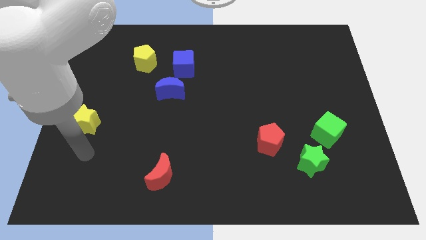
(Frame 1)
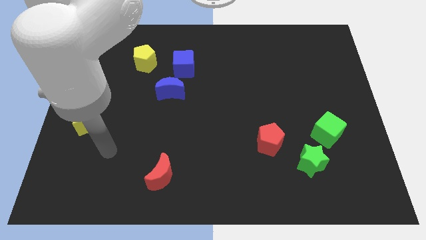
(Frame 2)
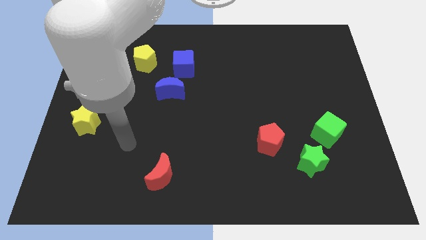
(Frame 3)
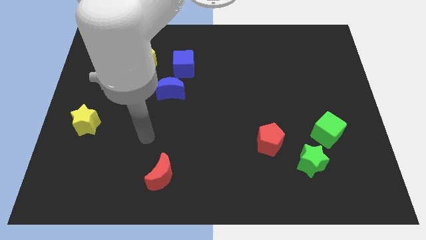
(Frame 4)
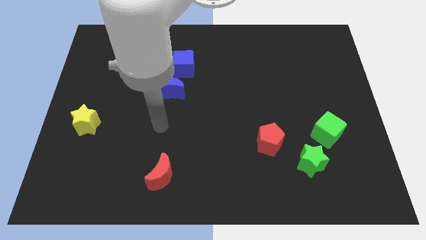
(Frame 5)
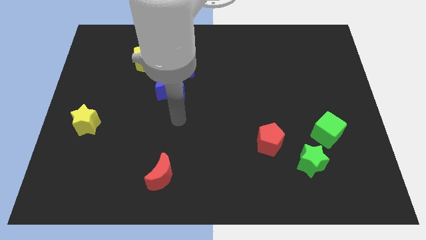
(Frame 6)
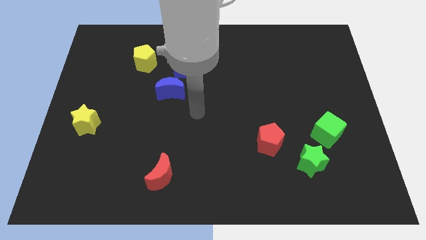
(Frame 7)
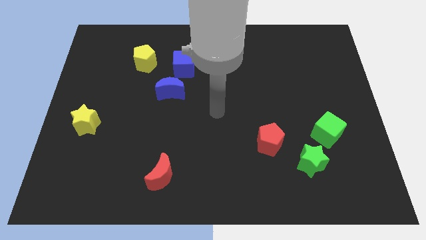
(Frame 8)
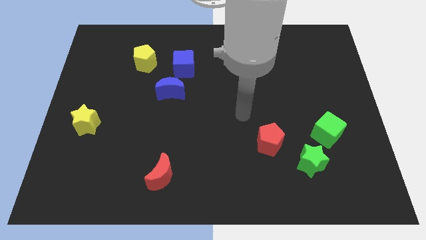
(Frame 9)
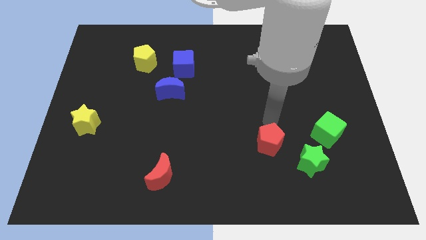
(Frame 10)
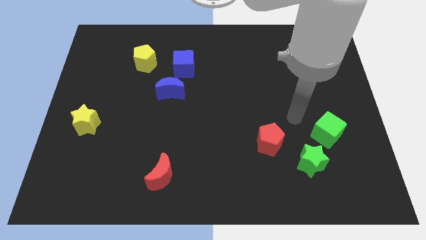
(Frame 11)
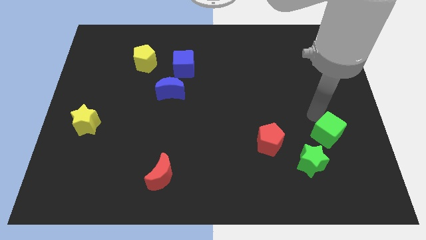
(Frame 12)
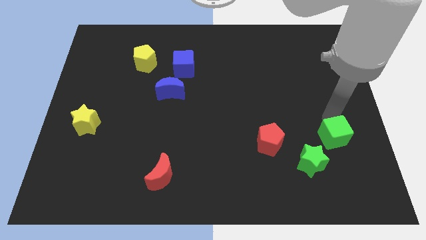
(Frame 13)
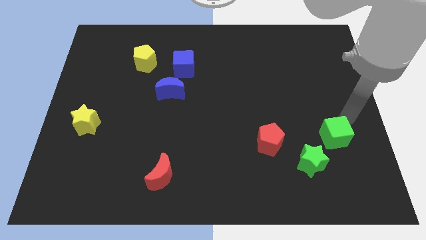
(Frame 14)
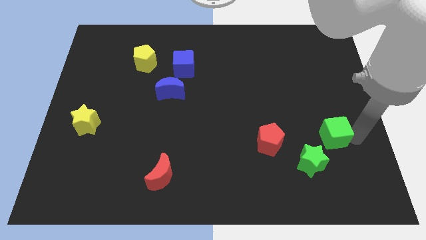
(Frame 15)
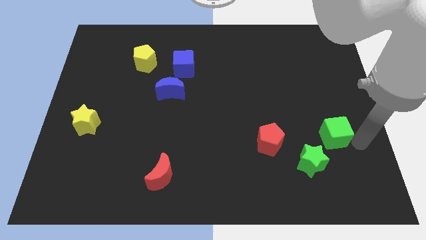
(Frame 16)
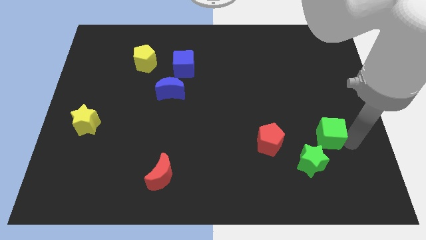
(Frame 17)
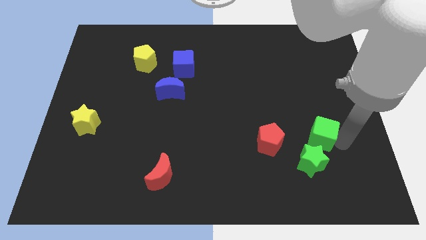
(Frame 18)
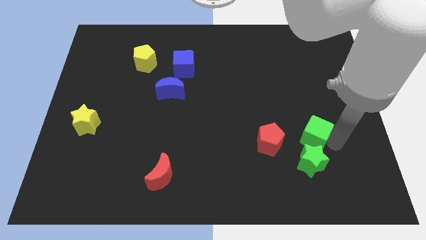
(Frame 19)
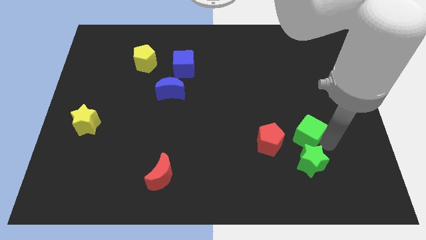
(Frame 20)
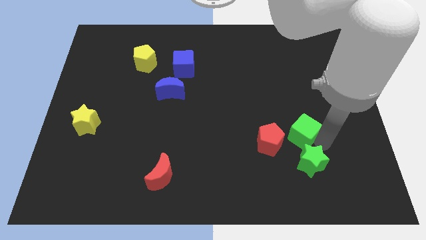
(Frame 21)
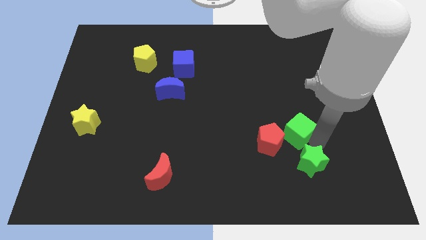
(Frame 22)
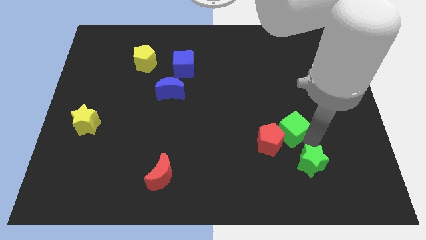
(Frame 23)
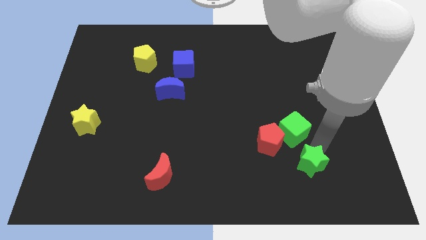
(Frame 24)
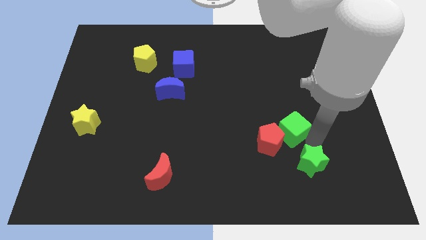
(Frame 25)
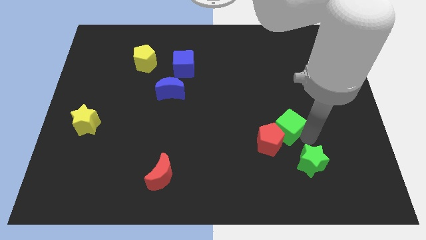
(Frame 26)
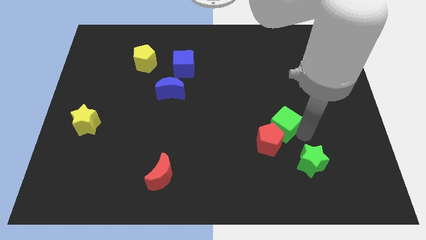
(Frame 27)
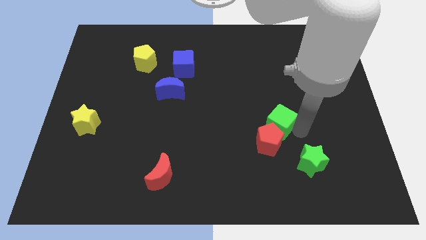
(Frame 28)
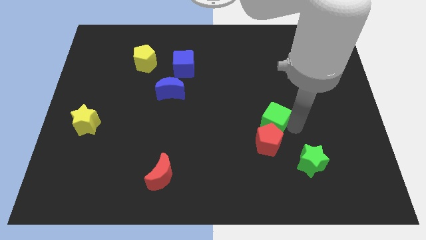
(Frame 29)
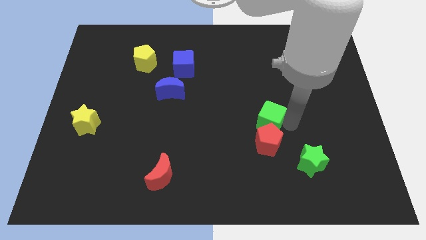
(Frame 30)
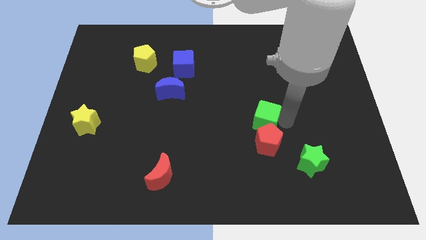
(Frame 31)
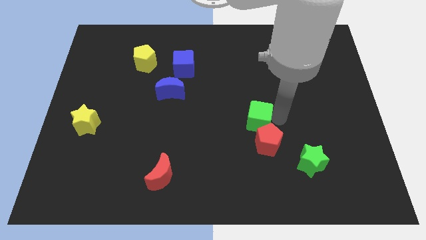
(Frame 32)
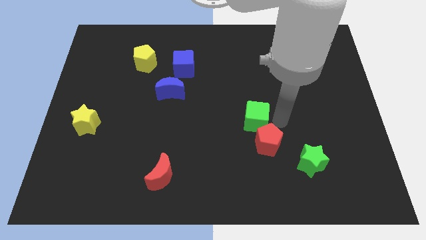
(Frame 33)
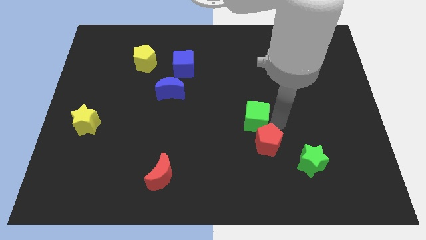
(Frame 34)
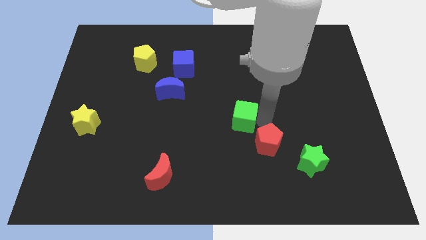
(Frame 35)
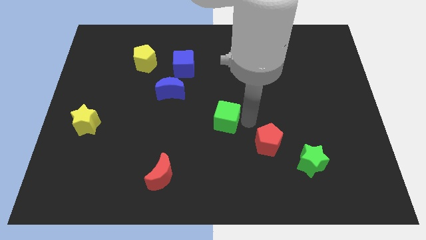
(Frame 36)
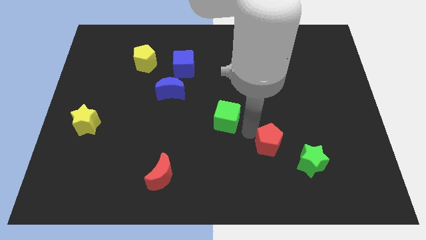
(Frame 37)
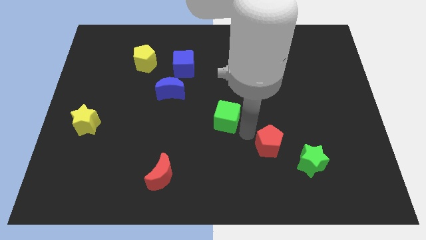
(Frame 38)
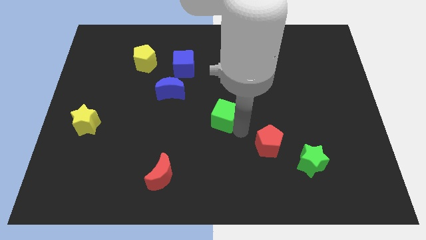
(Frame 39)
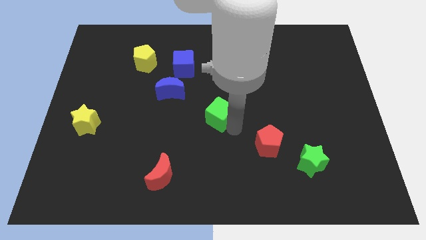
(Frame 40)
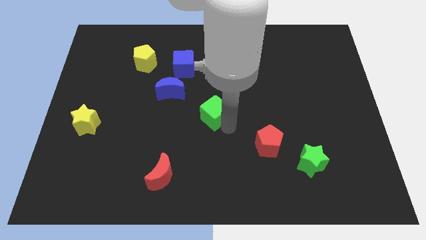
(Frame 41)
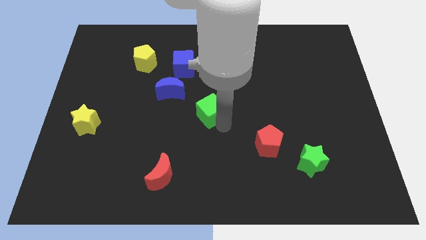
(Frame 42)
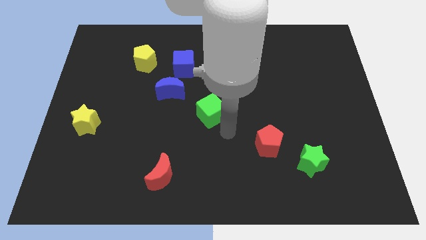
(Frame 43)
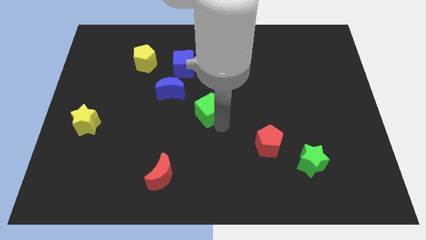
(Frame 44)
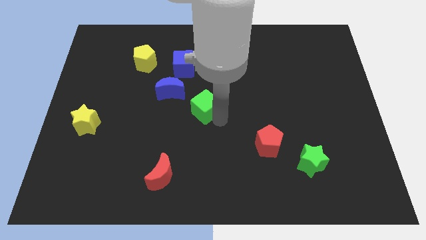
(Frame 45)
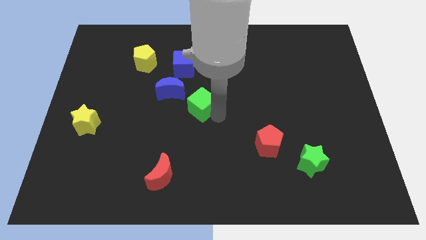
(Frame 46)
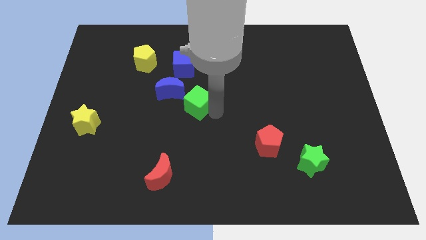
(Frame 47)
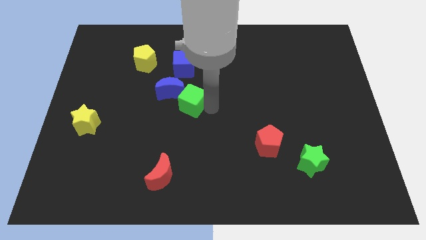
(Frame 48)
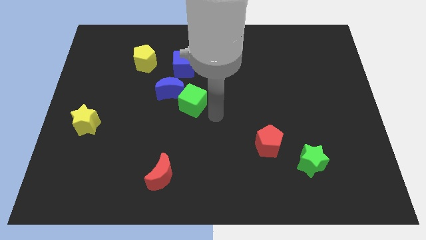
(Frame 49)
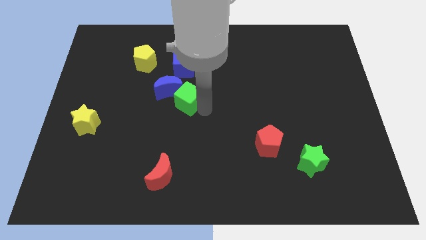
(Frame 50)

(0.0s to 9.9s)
put the green cube next to the blue moon

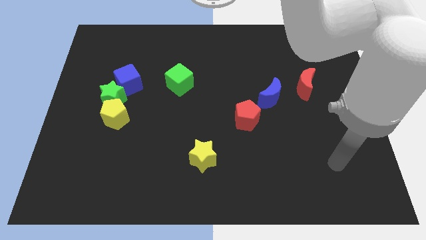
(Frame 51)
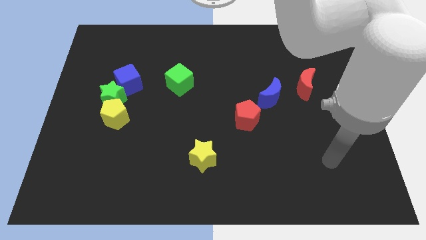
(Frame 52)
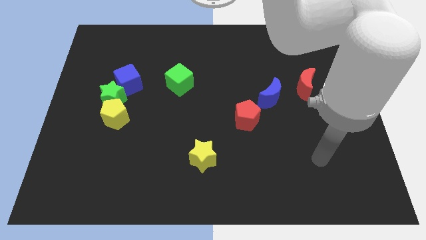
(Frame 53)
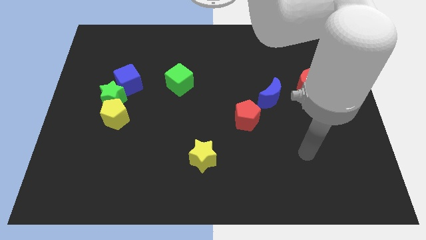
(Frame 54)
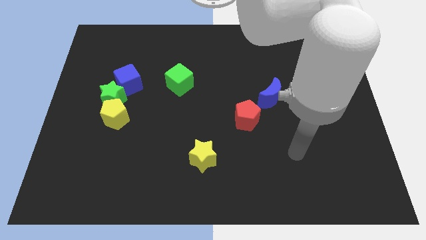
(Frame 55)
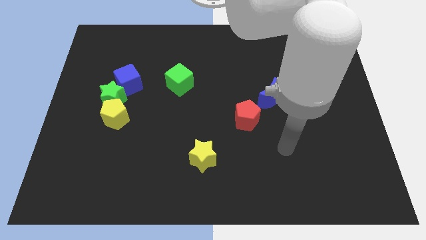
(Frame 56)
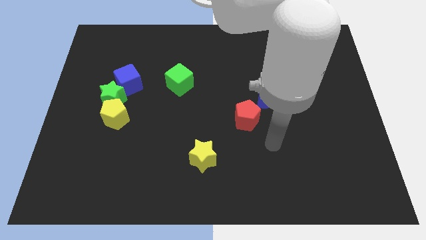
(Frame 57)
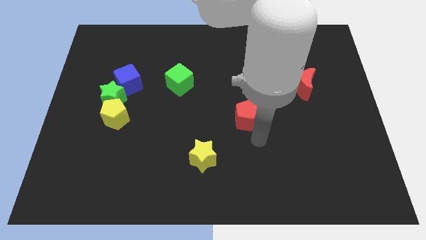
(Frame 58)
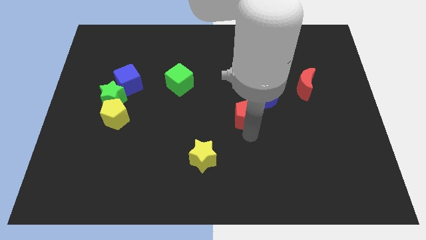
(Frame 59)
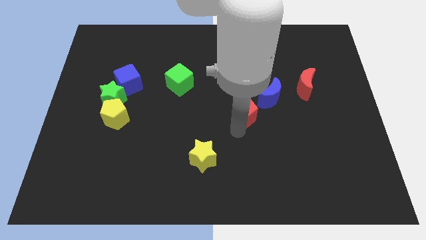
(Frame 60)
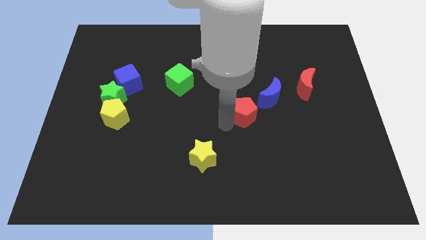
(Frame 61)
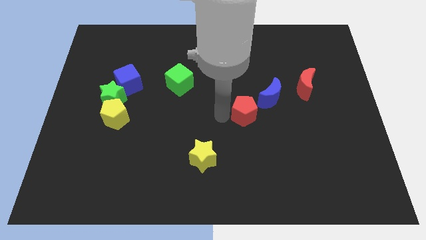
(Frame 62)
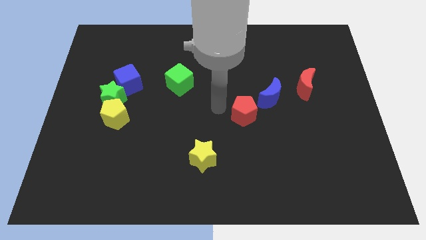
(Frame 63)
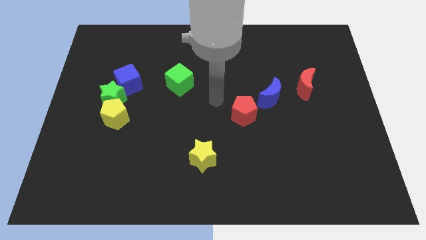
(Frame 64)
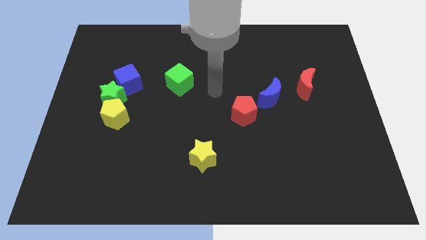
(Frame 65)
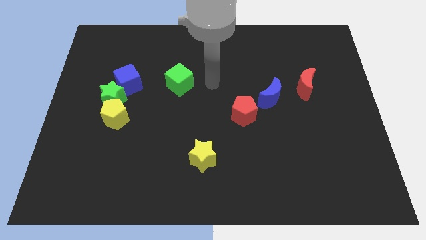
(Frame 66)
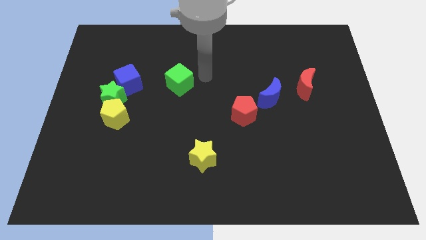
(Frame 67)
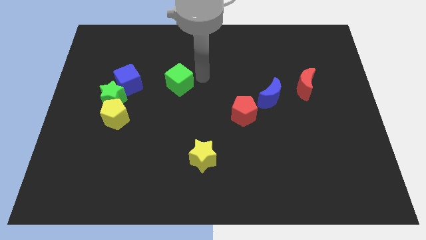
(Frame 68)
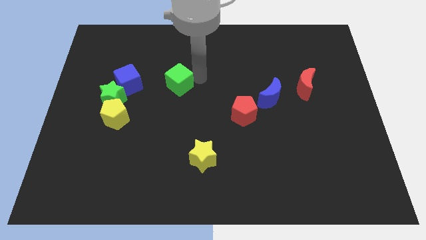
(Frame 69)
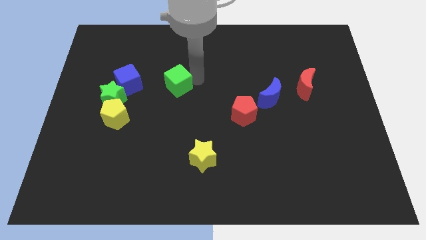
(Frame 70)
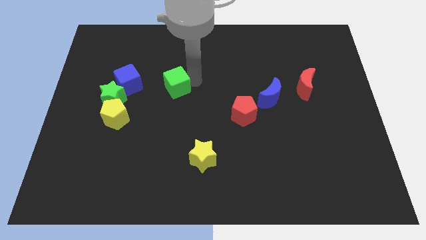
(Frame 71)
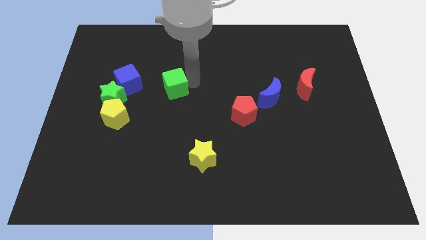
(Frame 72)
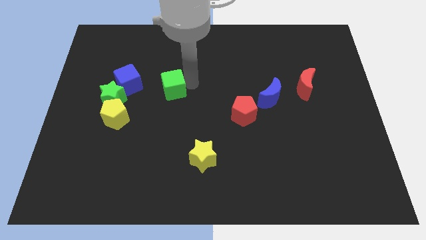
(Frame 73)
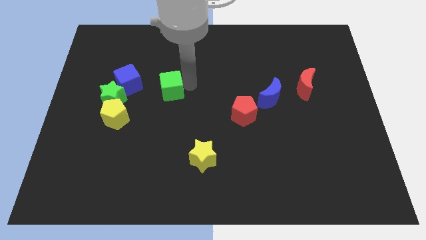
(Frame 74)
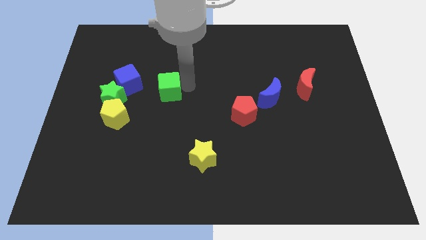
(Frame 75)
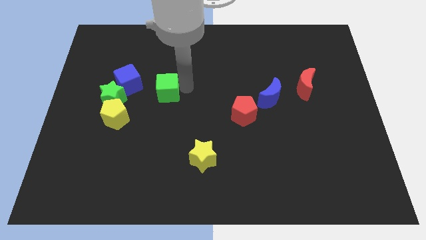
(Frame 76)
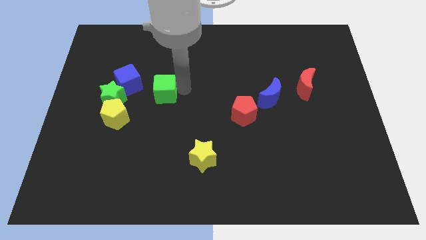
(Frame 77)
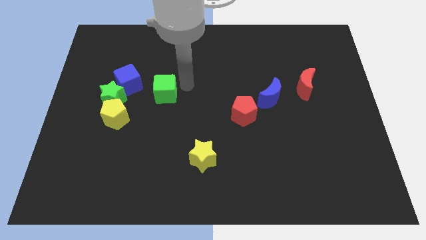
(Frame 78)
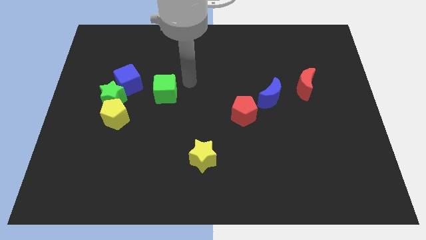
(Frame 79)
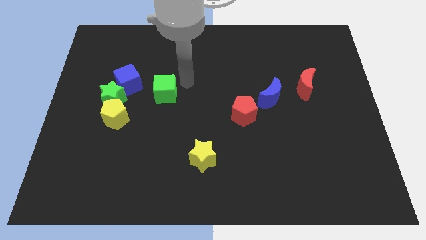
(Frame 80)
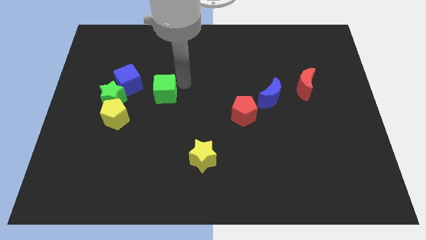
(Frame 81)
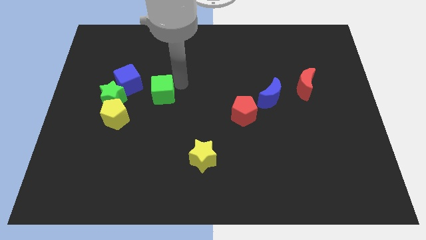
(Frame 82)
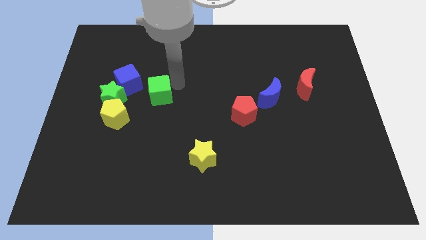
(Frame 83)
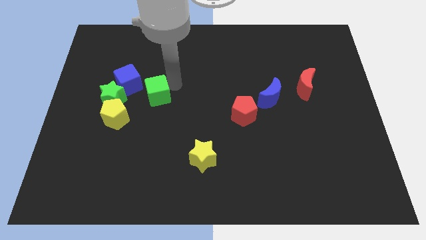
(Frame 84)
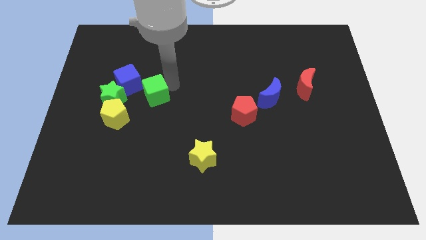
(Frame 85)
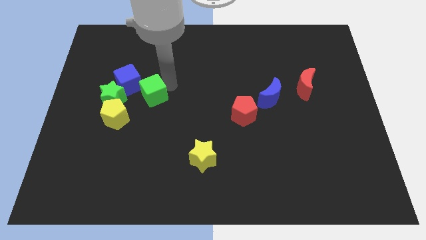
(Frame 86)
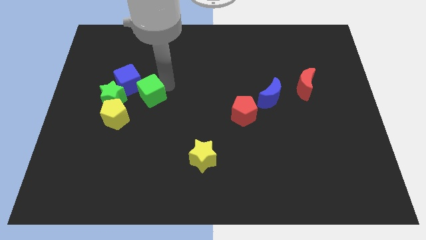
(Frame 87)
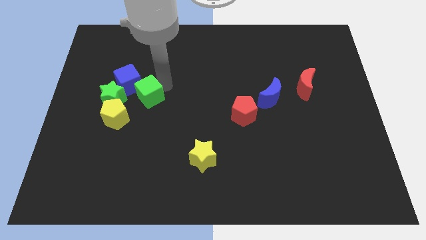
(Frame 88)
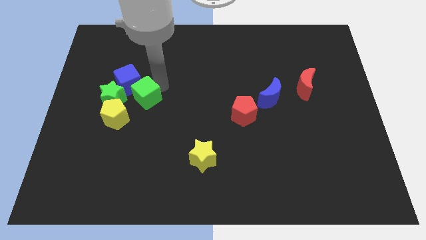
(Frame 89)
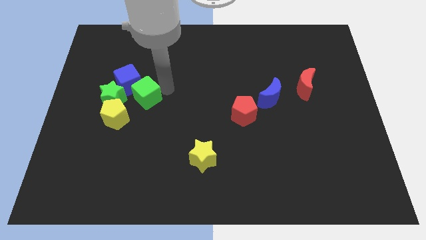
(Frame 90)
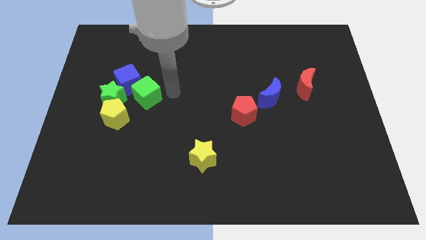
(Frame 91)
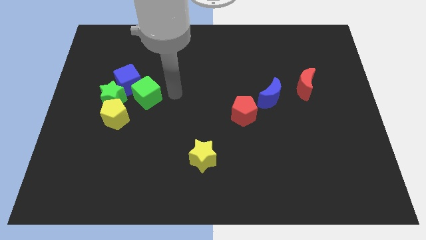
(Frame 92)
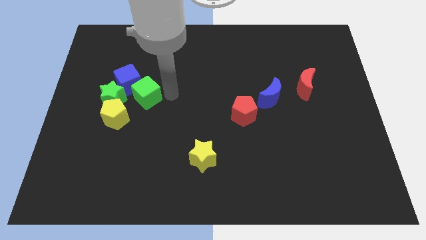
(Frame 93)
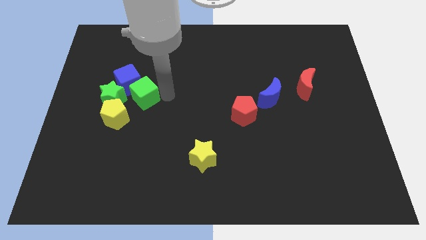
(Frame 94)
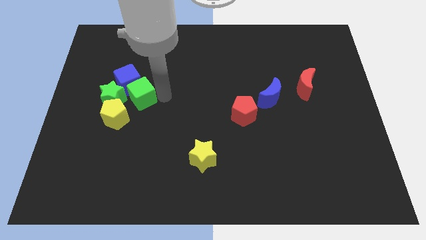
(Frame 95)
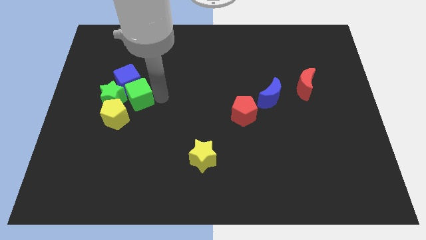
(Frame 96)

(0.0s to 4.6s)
slide the green cube close to the green star
